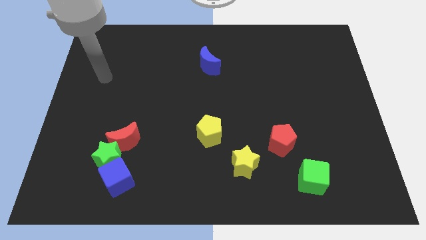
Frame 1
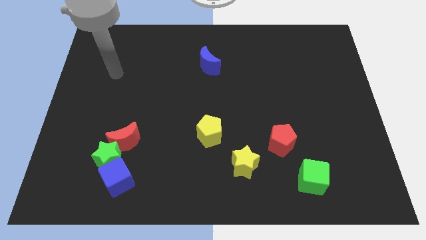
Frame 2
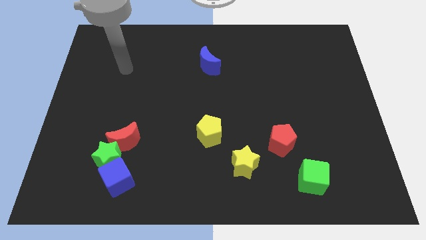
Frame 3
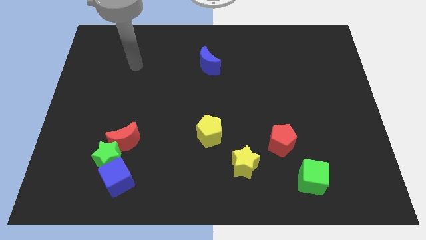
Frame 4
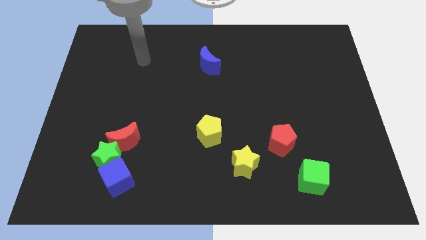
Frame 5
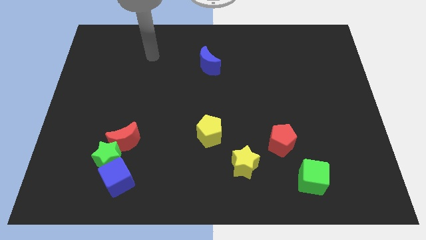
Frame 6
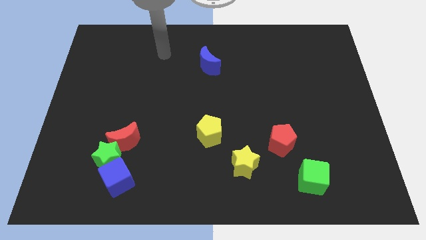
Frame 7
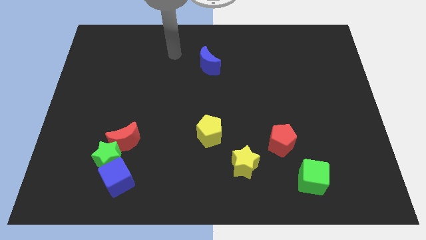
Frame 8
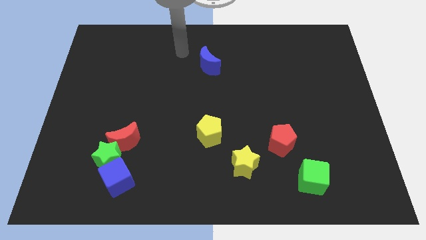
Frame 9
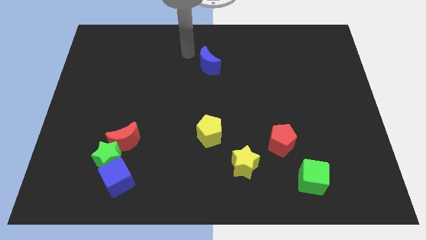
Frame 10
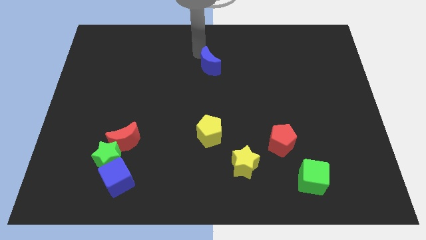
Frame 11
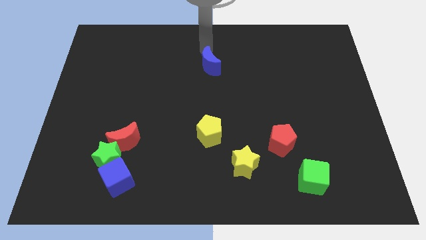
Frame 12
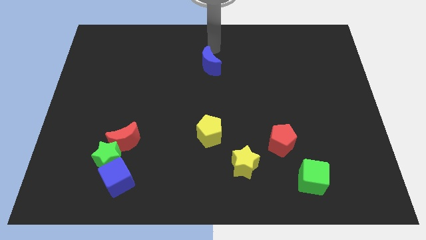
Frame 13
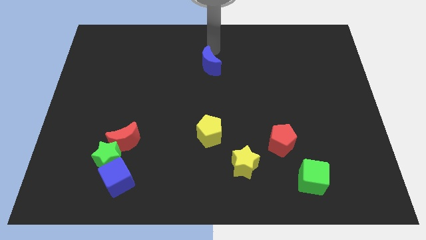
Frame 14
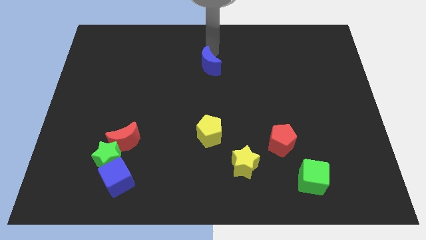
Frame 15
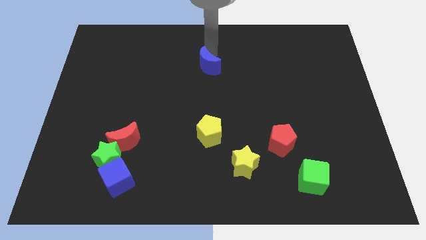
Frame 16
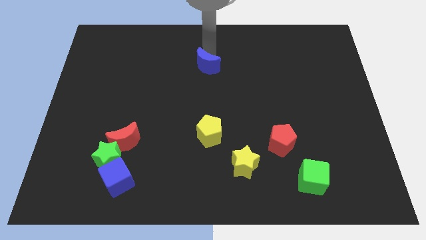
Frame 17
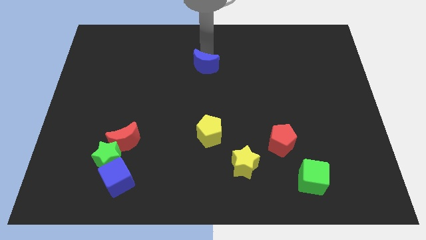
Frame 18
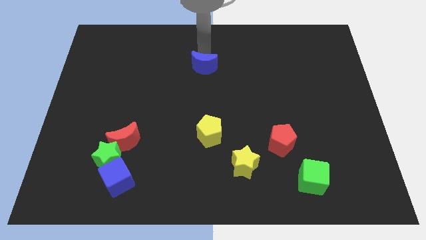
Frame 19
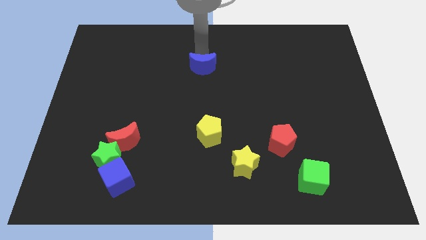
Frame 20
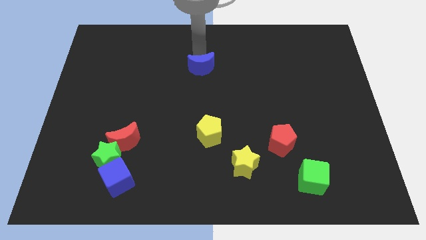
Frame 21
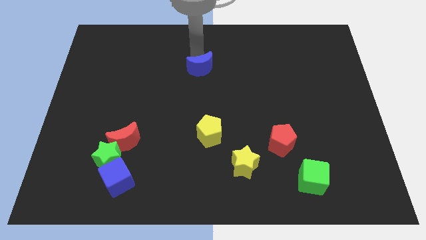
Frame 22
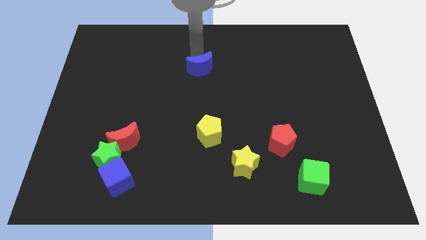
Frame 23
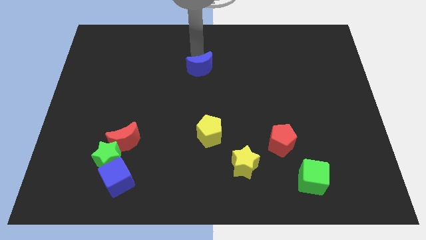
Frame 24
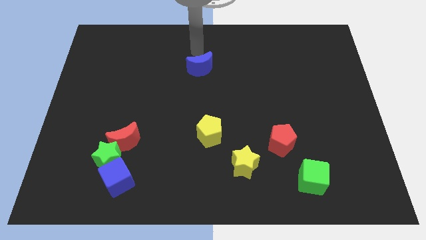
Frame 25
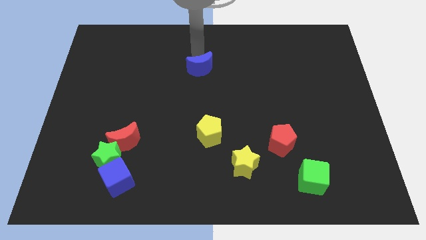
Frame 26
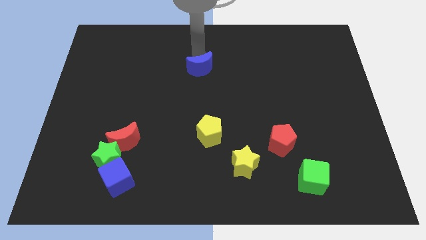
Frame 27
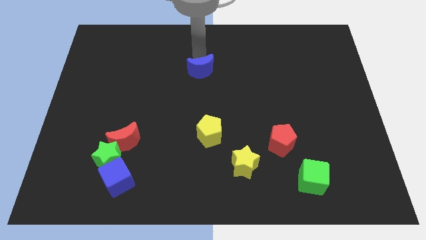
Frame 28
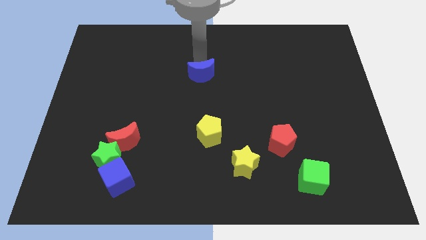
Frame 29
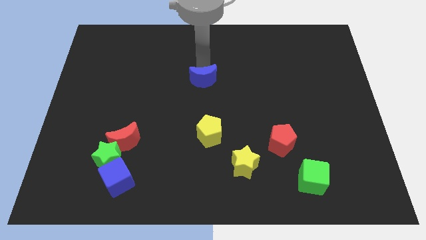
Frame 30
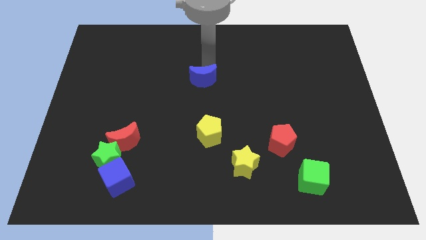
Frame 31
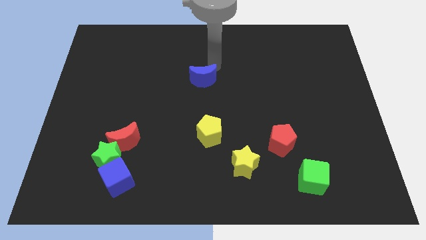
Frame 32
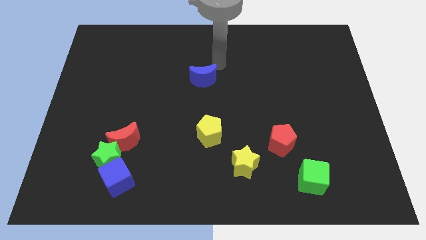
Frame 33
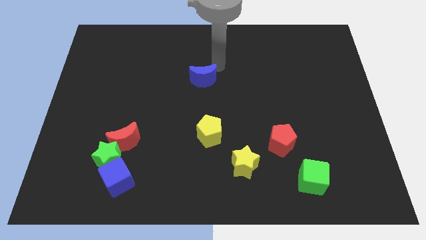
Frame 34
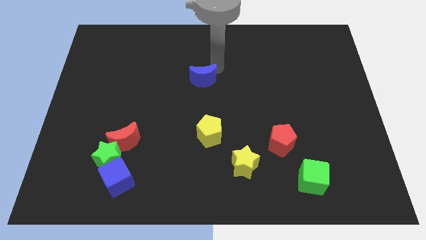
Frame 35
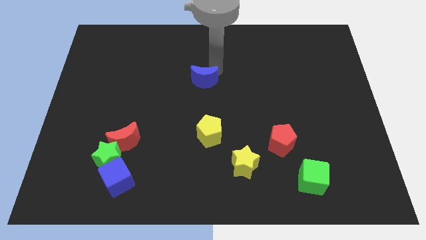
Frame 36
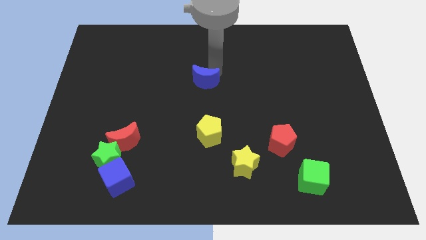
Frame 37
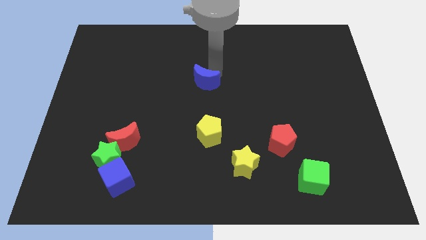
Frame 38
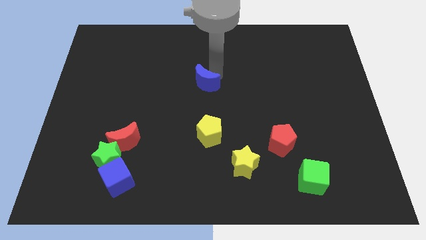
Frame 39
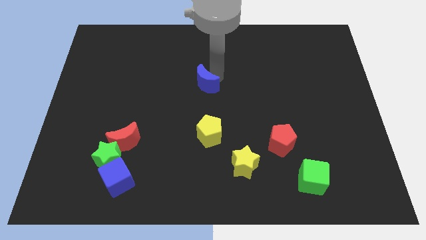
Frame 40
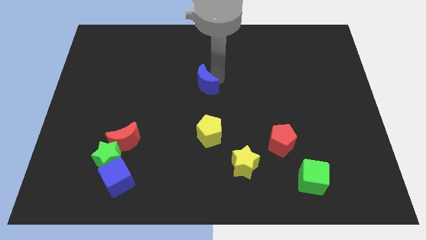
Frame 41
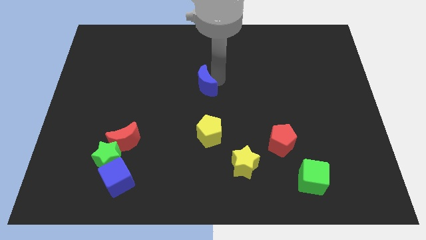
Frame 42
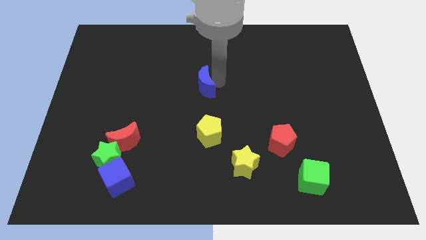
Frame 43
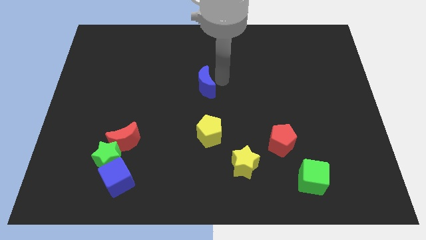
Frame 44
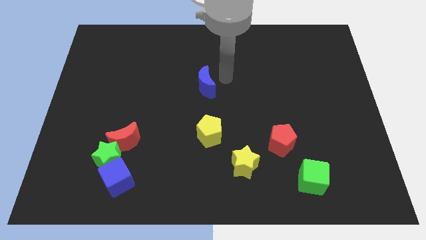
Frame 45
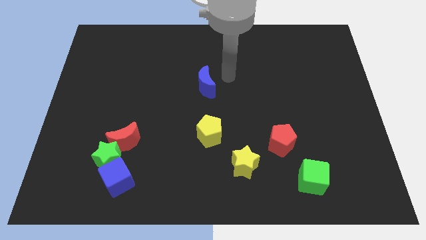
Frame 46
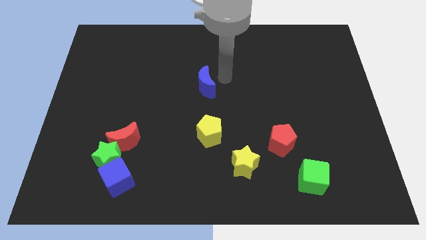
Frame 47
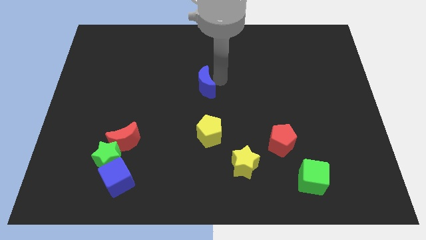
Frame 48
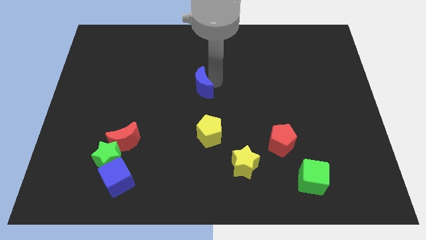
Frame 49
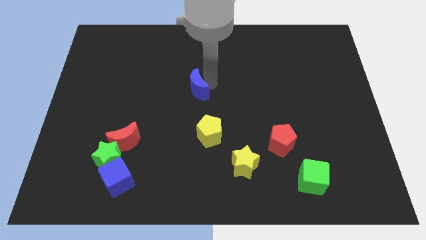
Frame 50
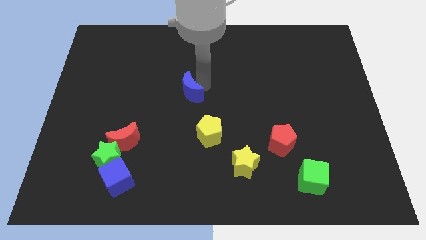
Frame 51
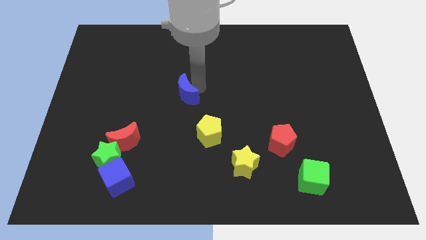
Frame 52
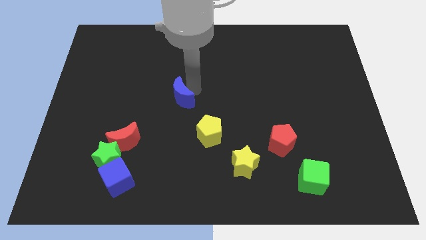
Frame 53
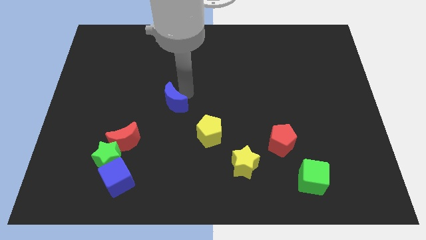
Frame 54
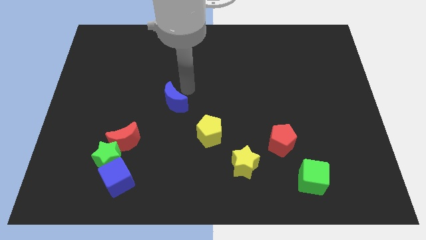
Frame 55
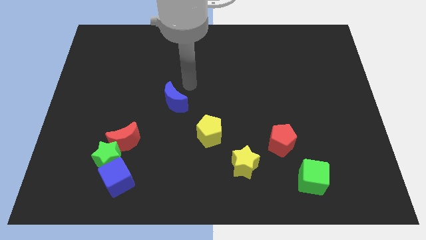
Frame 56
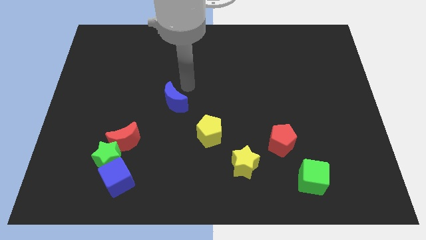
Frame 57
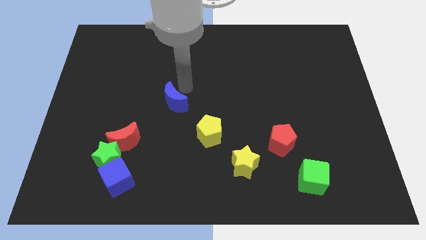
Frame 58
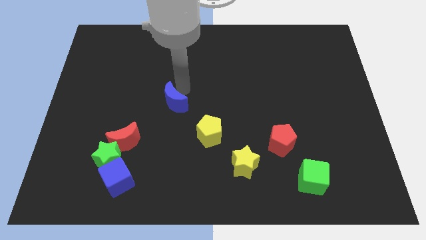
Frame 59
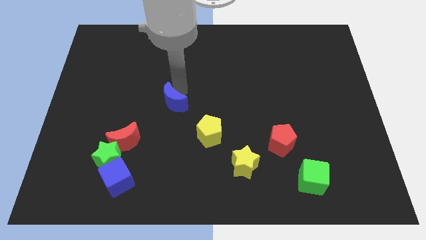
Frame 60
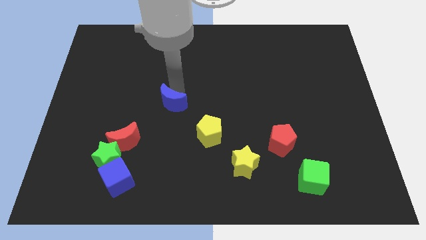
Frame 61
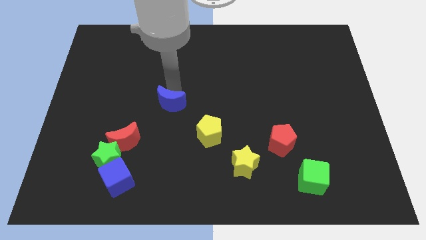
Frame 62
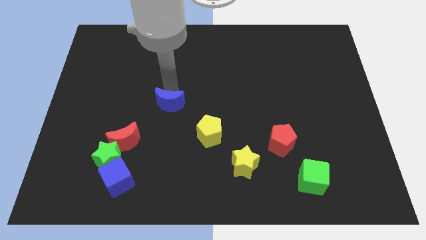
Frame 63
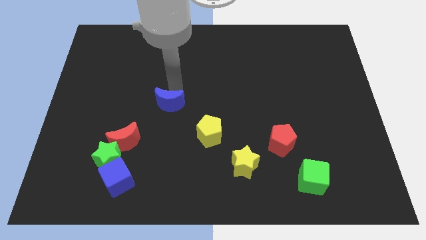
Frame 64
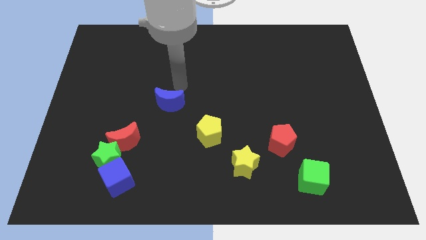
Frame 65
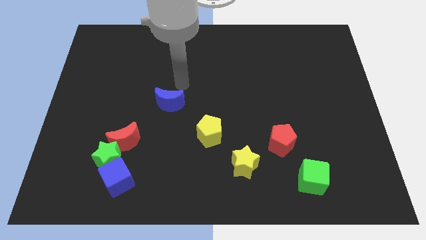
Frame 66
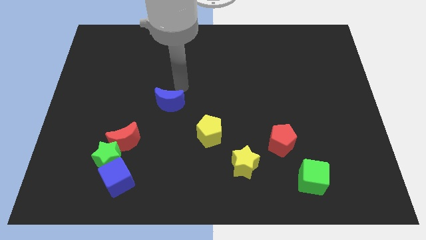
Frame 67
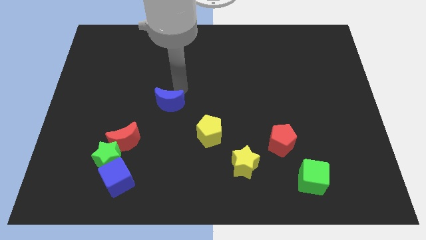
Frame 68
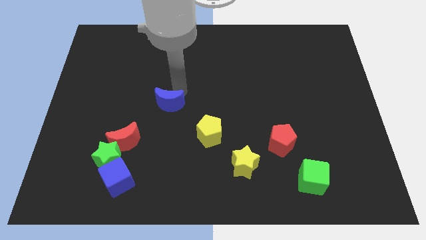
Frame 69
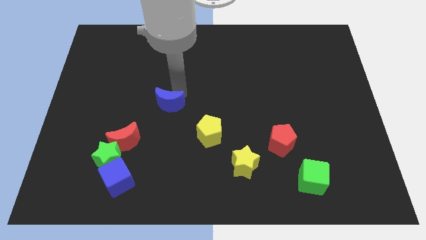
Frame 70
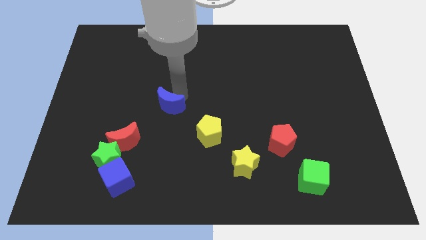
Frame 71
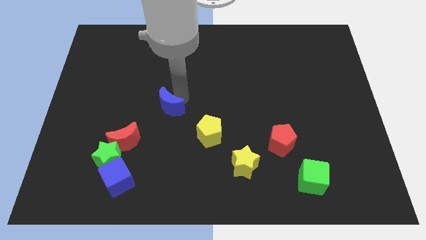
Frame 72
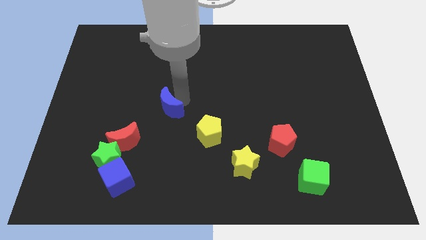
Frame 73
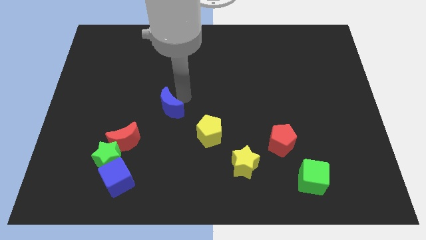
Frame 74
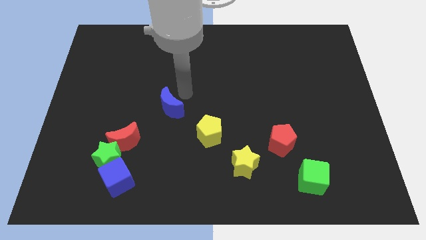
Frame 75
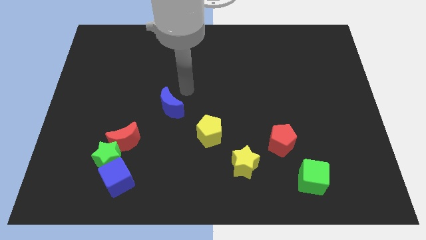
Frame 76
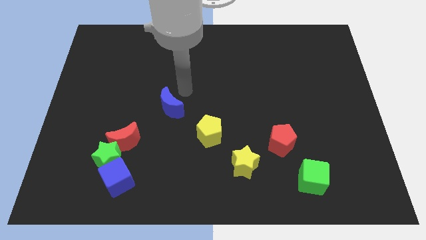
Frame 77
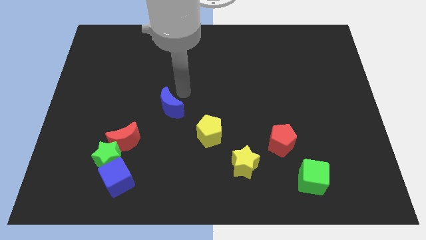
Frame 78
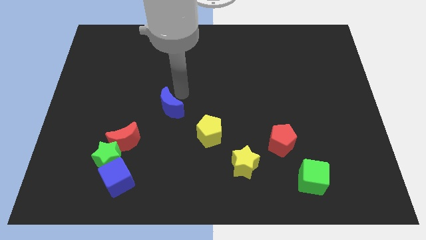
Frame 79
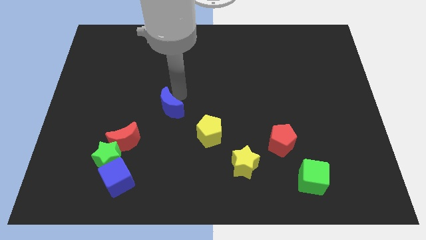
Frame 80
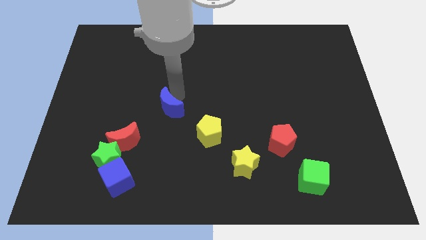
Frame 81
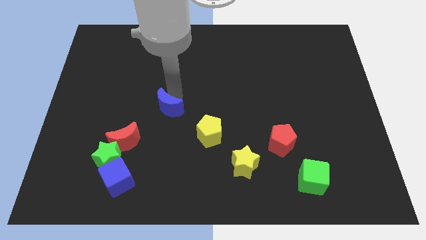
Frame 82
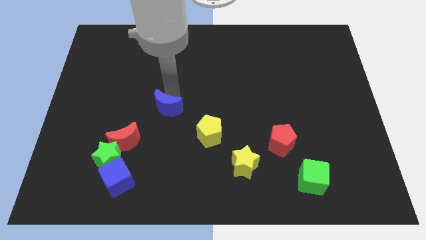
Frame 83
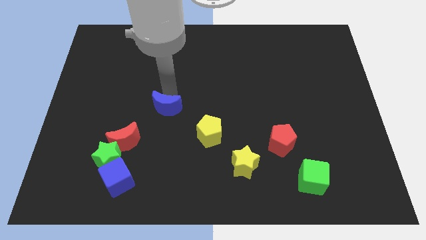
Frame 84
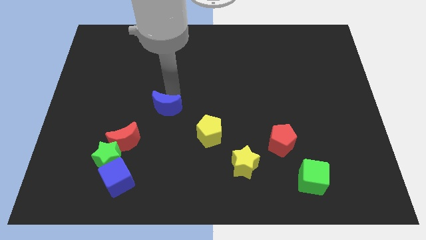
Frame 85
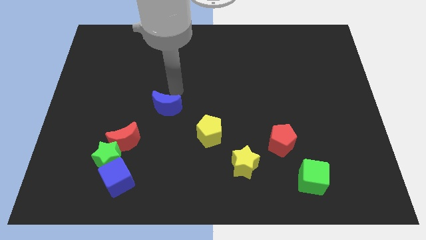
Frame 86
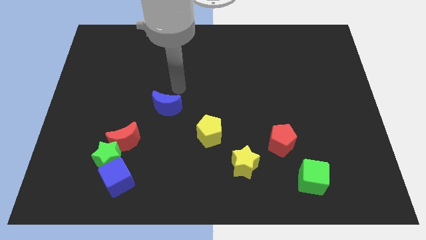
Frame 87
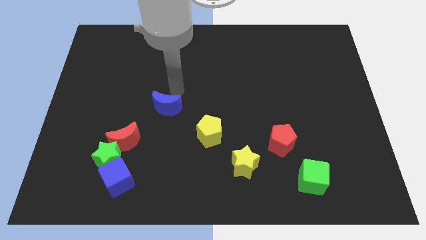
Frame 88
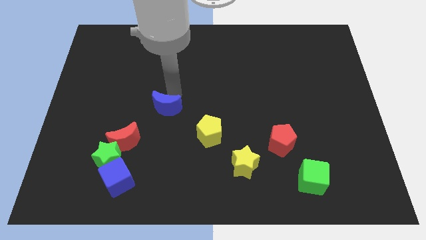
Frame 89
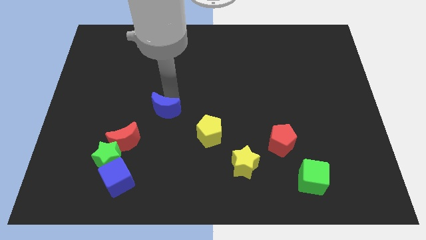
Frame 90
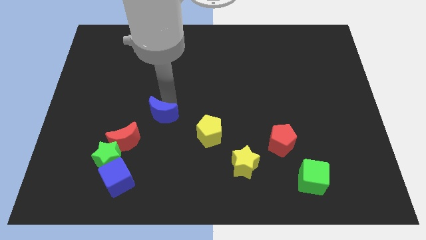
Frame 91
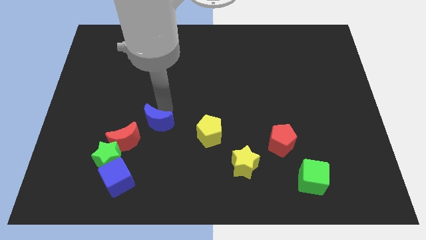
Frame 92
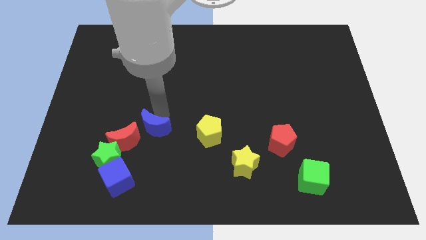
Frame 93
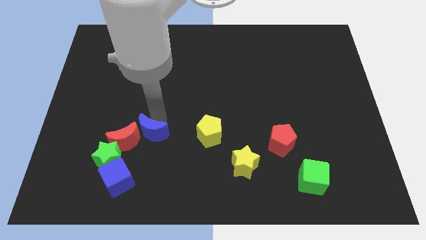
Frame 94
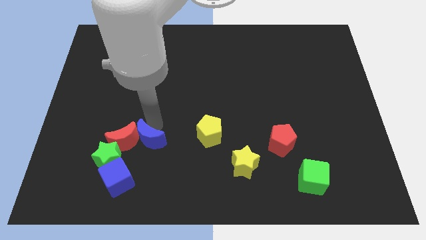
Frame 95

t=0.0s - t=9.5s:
put the blue moon to the bottom right side of the red moon
